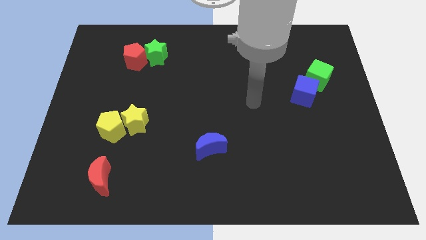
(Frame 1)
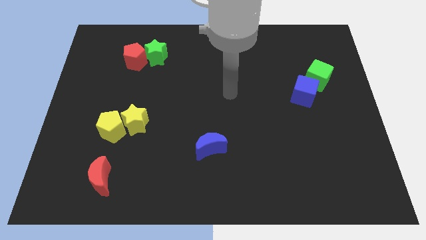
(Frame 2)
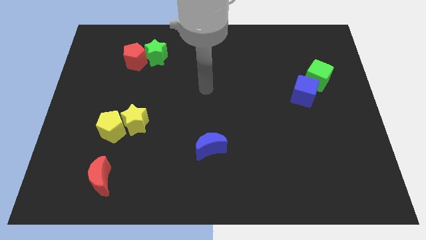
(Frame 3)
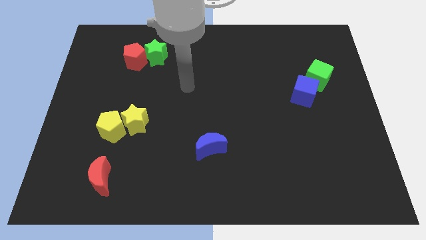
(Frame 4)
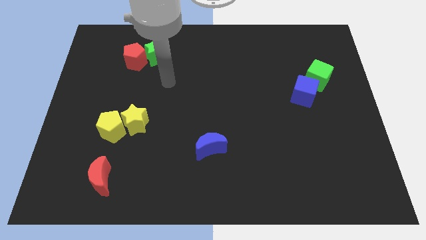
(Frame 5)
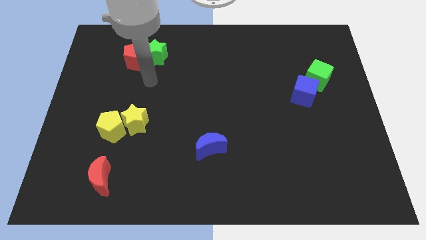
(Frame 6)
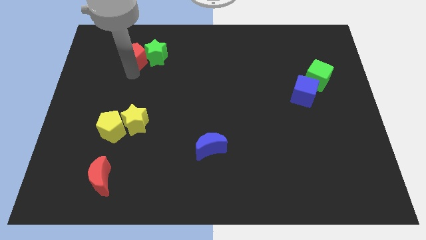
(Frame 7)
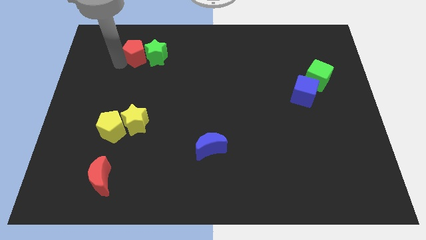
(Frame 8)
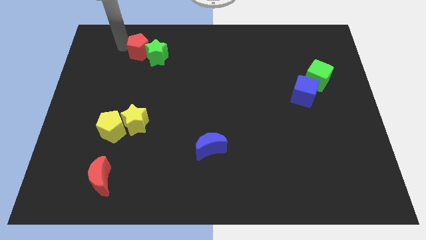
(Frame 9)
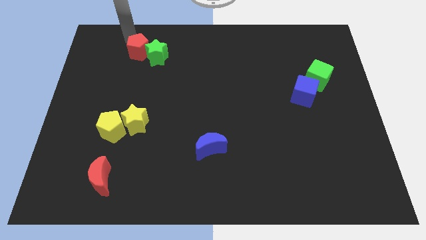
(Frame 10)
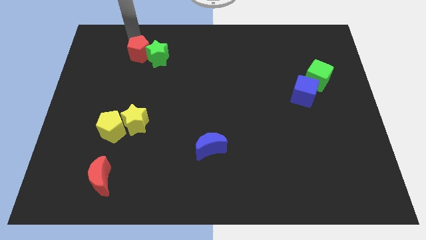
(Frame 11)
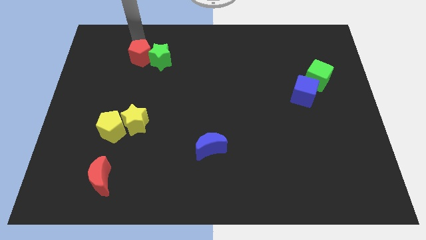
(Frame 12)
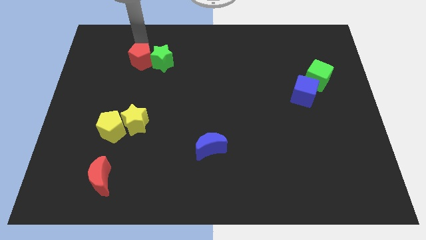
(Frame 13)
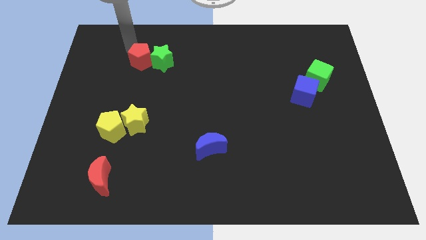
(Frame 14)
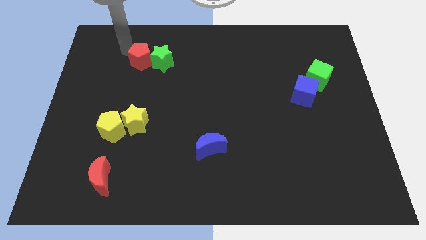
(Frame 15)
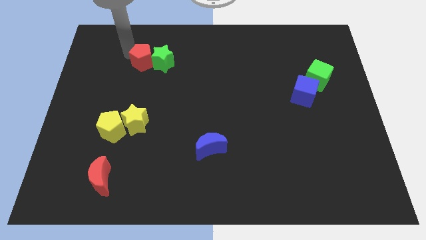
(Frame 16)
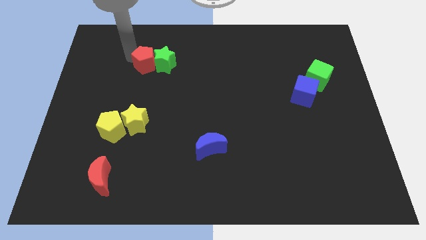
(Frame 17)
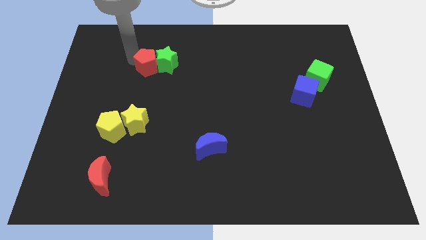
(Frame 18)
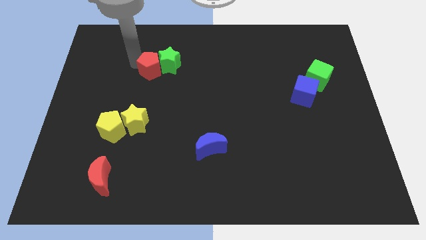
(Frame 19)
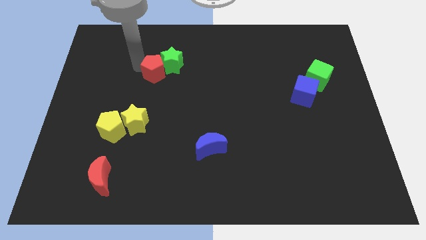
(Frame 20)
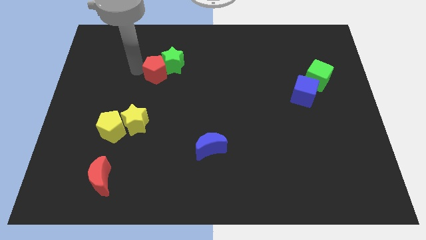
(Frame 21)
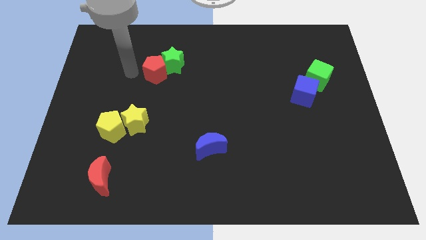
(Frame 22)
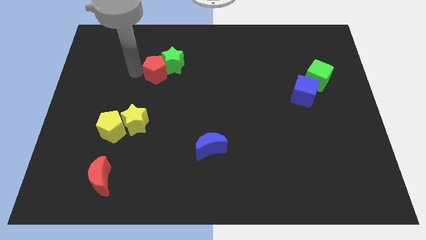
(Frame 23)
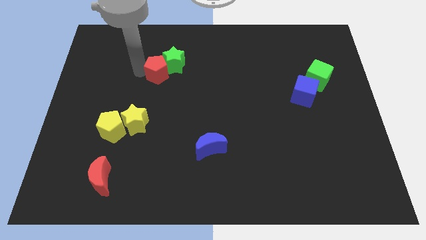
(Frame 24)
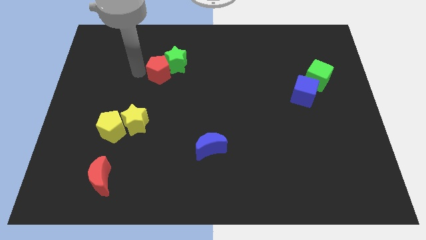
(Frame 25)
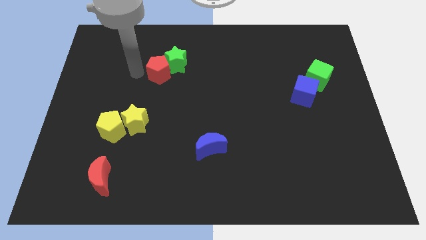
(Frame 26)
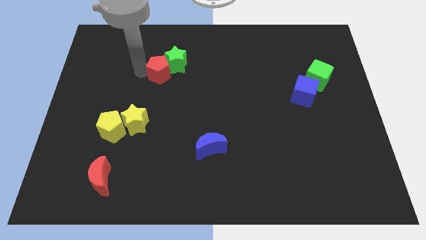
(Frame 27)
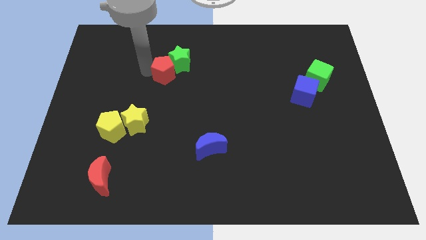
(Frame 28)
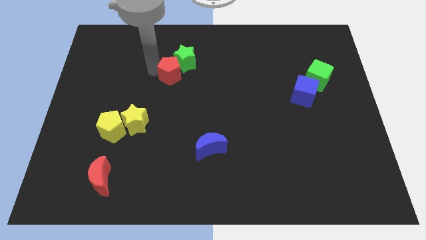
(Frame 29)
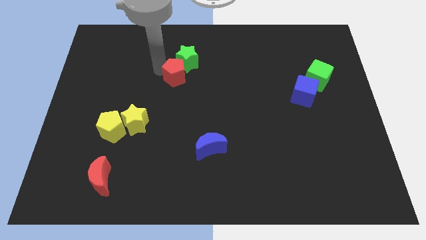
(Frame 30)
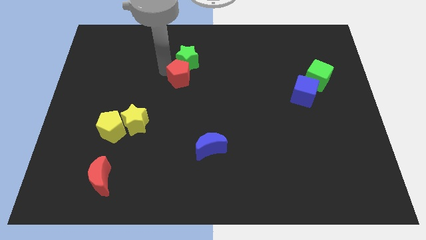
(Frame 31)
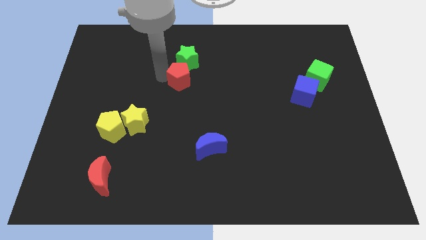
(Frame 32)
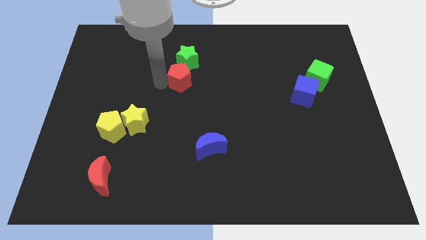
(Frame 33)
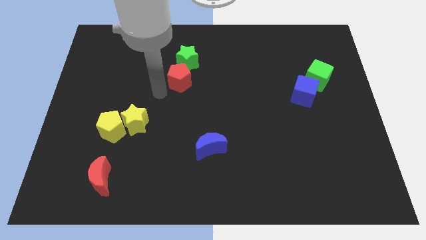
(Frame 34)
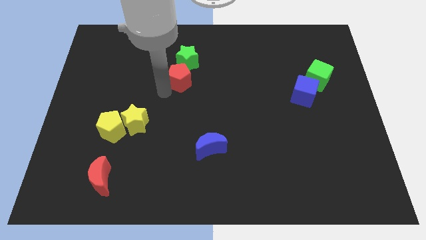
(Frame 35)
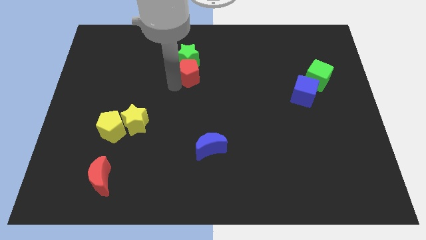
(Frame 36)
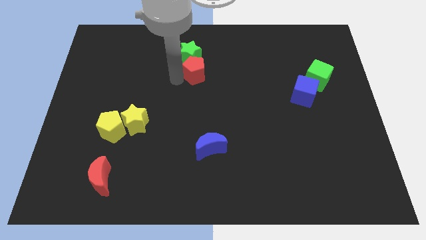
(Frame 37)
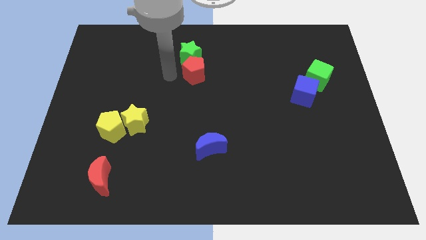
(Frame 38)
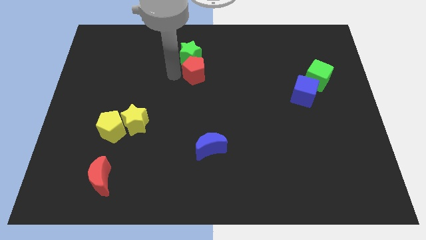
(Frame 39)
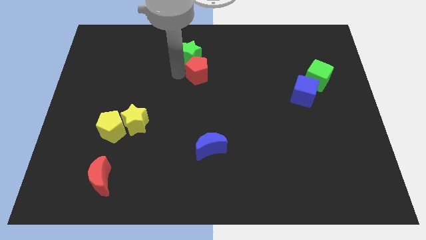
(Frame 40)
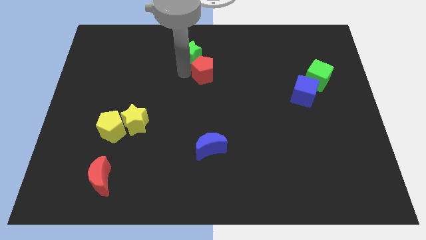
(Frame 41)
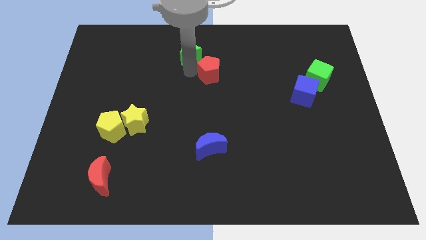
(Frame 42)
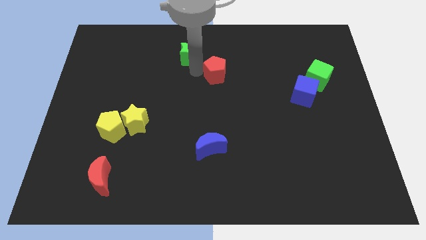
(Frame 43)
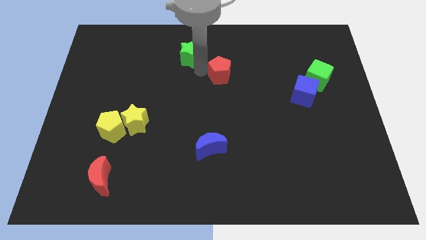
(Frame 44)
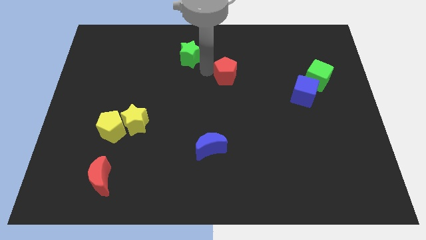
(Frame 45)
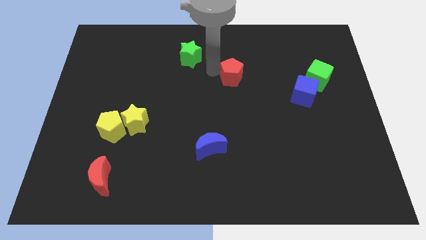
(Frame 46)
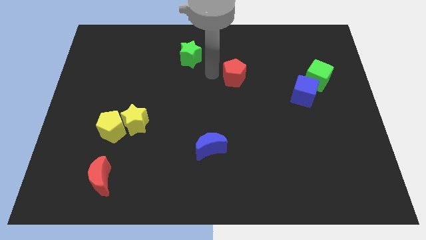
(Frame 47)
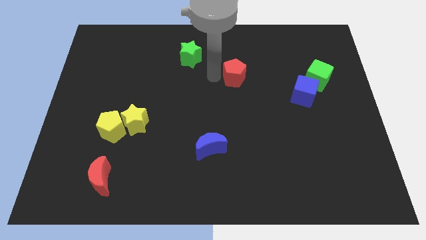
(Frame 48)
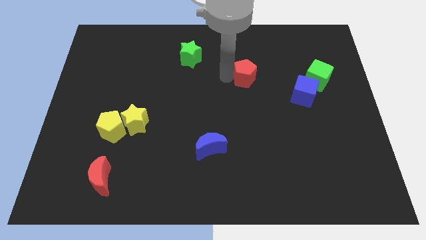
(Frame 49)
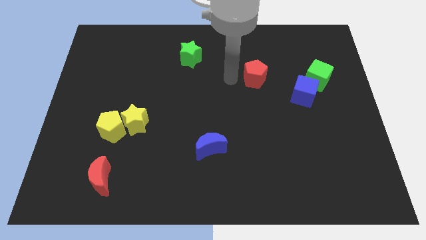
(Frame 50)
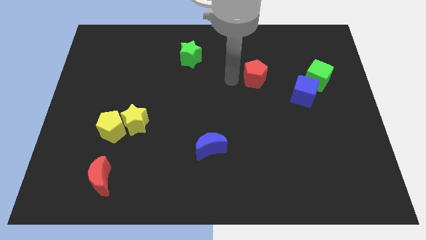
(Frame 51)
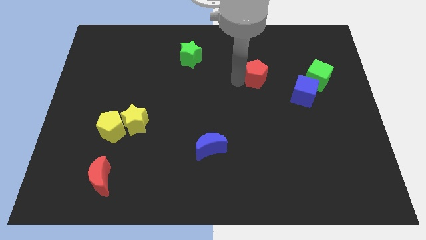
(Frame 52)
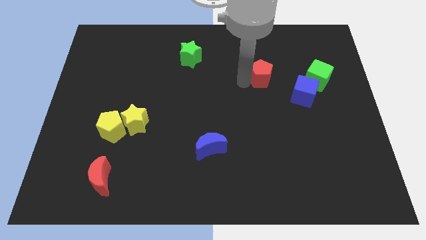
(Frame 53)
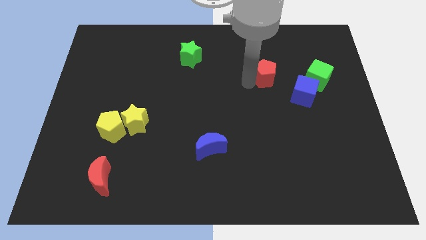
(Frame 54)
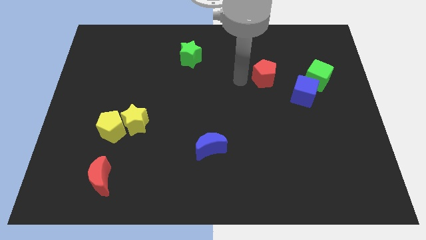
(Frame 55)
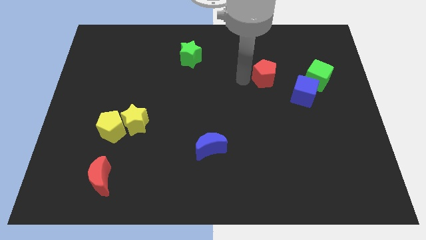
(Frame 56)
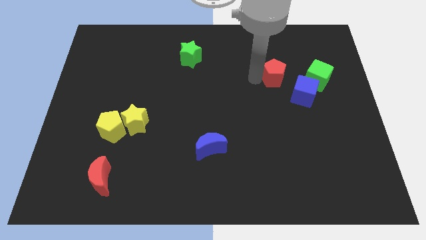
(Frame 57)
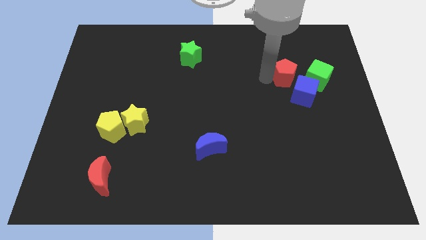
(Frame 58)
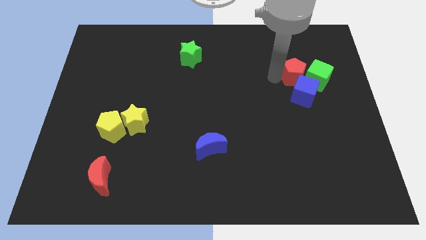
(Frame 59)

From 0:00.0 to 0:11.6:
move the red pentagon towards the green cube

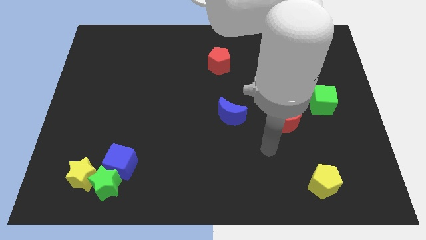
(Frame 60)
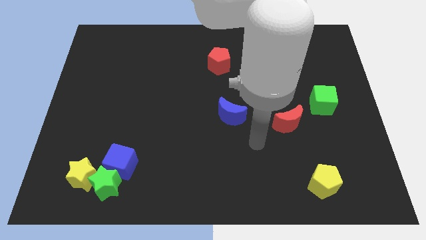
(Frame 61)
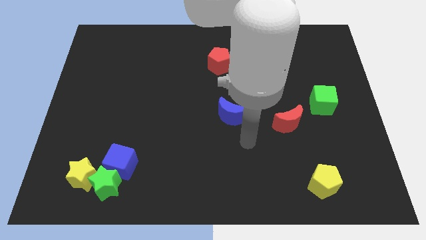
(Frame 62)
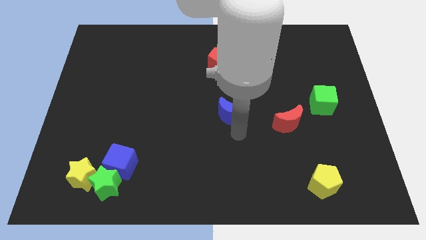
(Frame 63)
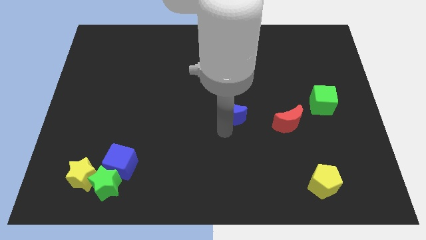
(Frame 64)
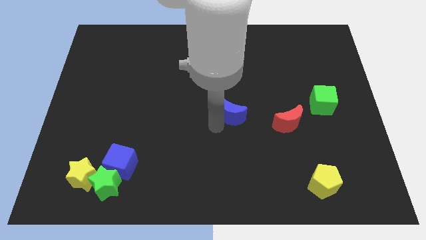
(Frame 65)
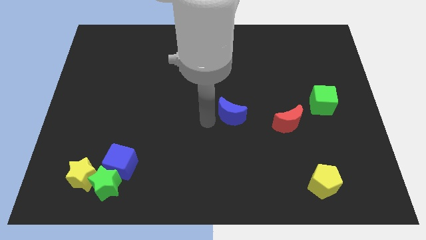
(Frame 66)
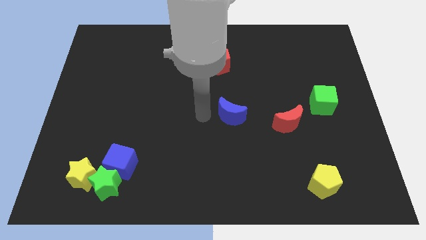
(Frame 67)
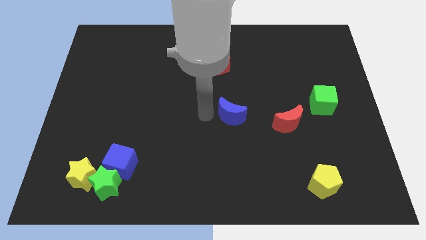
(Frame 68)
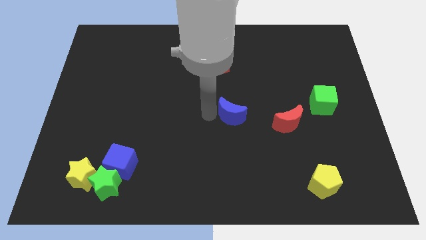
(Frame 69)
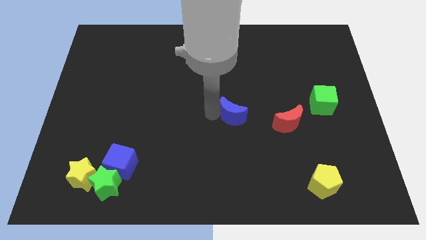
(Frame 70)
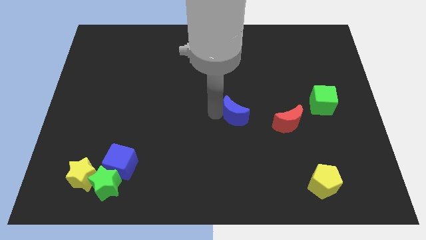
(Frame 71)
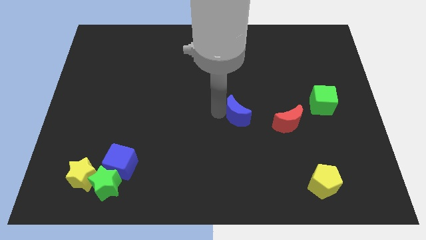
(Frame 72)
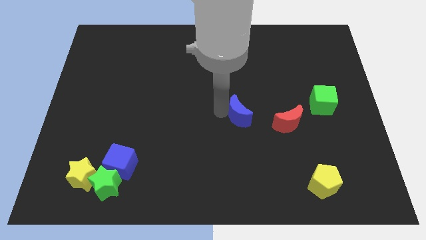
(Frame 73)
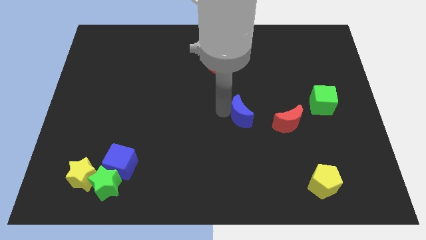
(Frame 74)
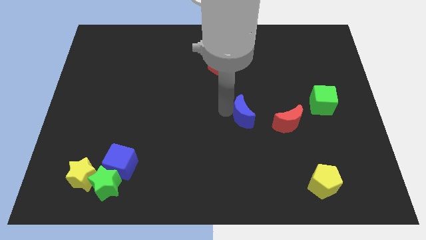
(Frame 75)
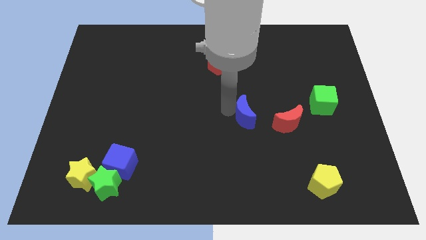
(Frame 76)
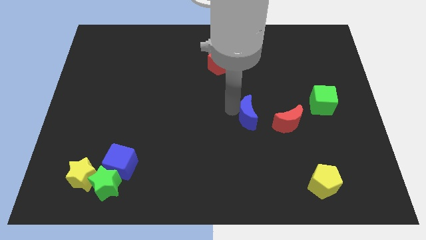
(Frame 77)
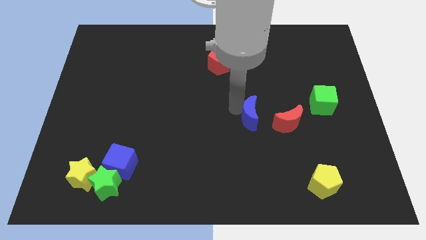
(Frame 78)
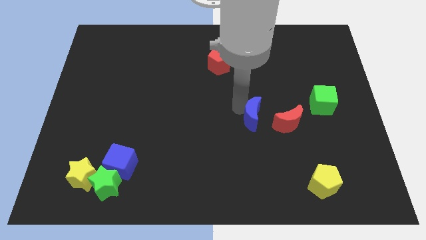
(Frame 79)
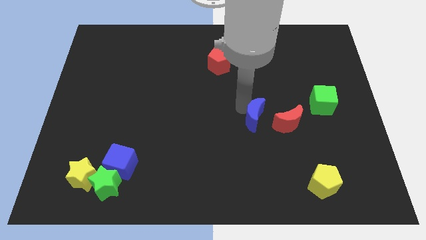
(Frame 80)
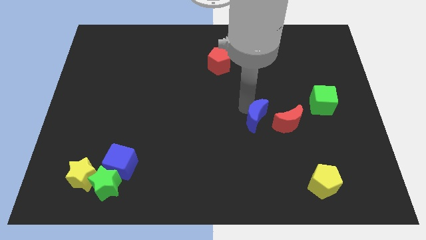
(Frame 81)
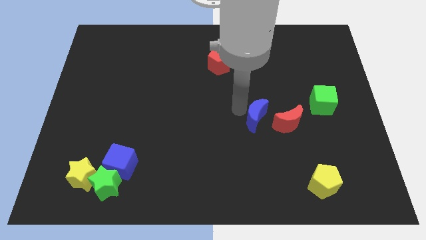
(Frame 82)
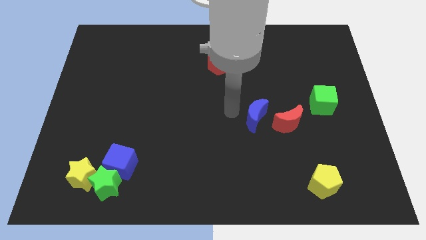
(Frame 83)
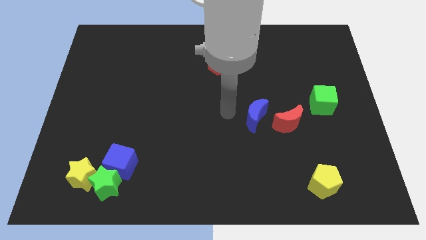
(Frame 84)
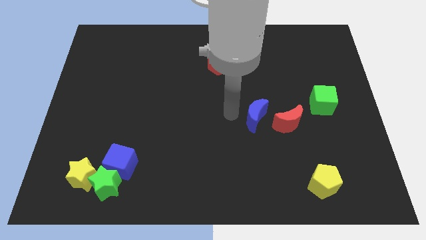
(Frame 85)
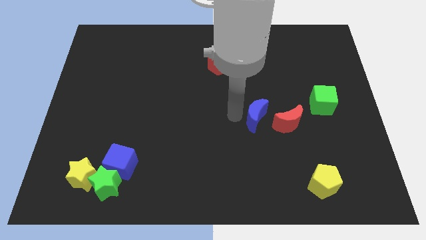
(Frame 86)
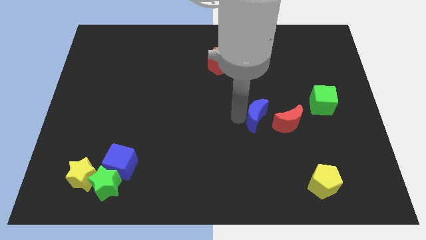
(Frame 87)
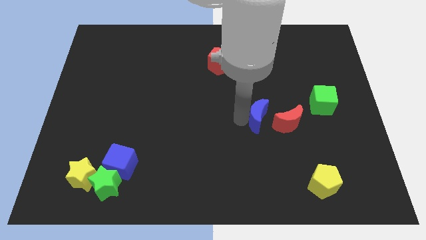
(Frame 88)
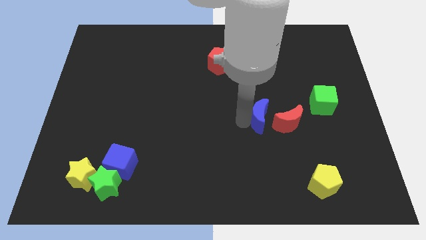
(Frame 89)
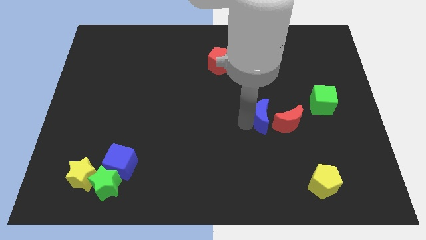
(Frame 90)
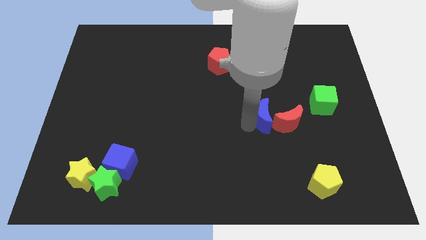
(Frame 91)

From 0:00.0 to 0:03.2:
slide the blue moon next to the red moon
